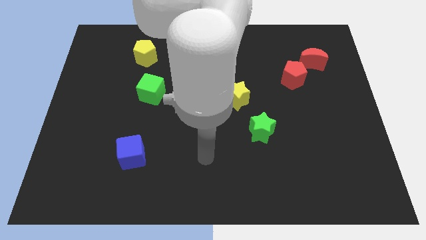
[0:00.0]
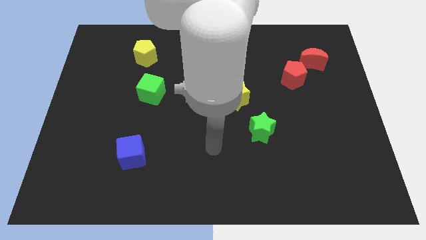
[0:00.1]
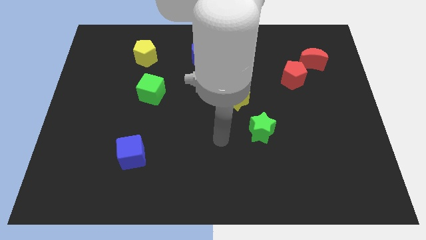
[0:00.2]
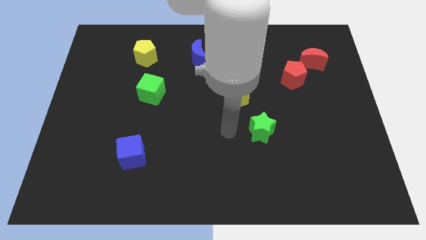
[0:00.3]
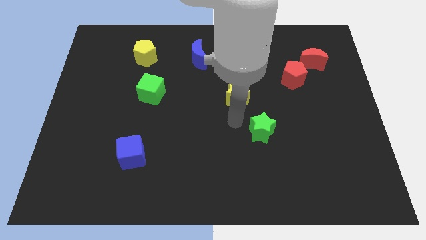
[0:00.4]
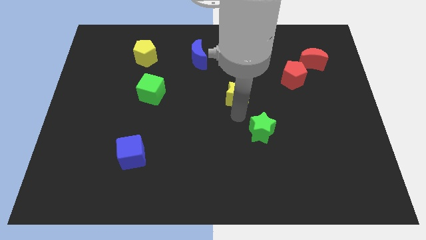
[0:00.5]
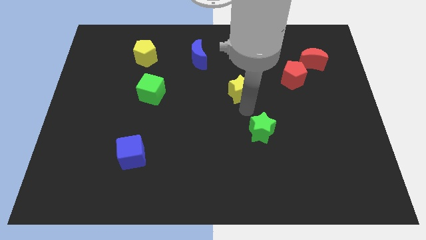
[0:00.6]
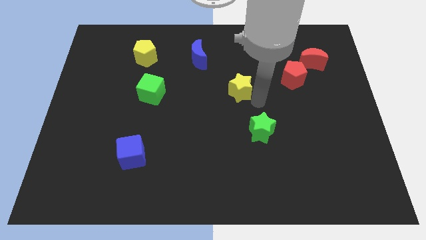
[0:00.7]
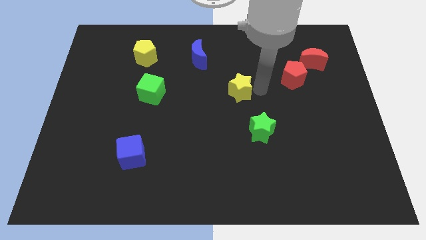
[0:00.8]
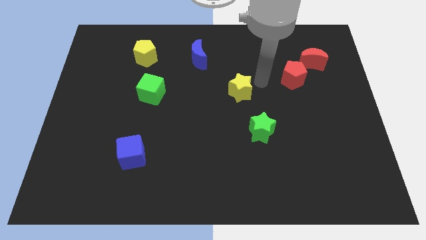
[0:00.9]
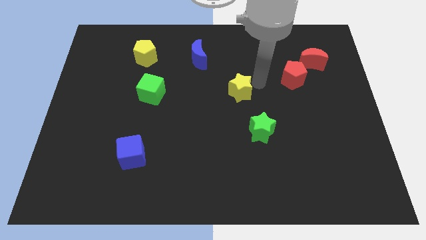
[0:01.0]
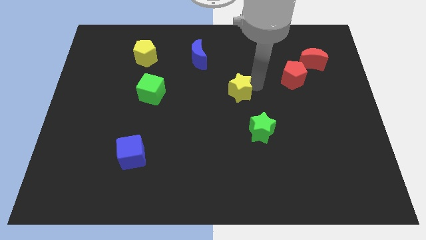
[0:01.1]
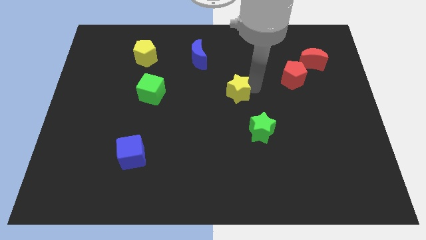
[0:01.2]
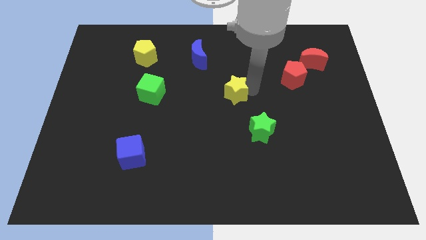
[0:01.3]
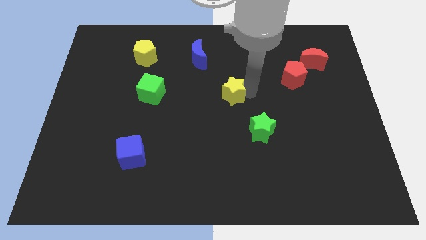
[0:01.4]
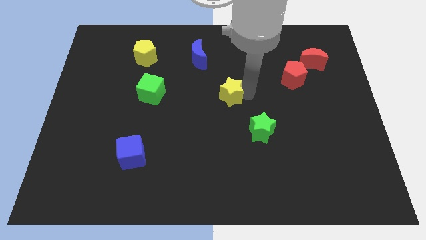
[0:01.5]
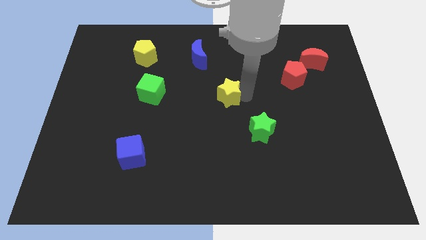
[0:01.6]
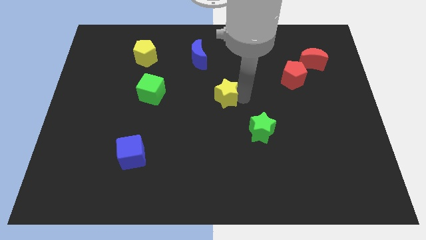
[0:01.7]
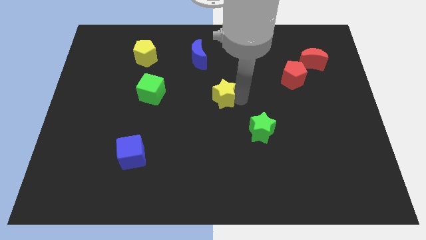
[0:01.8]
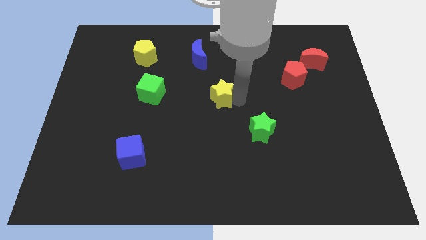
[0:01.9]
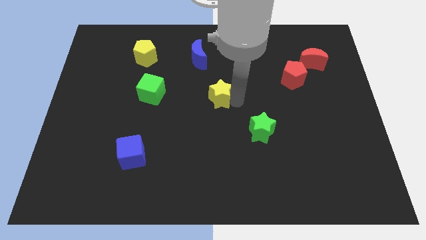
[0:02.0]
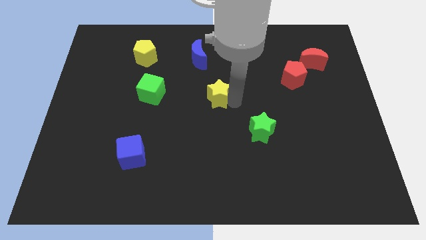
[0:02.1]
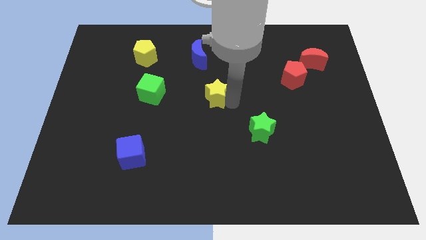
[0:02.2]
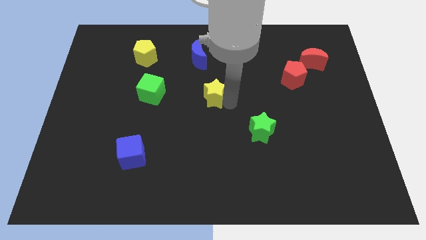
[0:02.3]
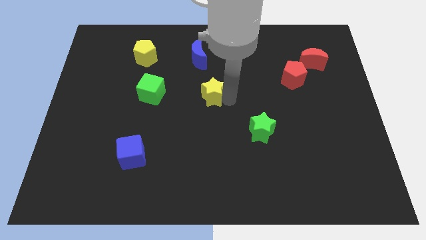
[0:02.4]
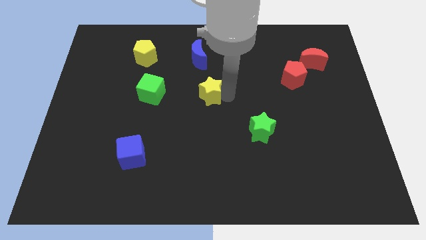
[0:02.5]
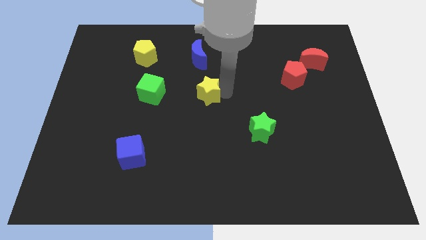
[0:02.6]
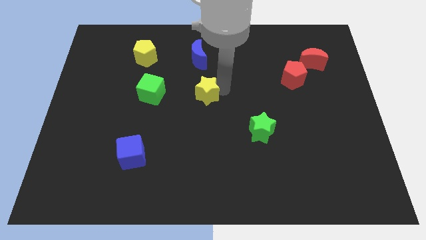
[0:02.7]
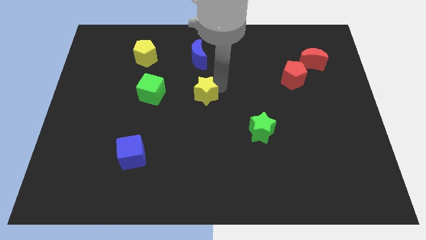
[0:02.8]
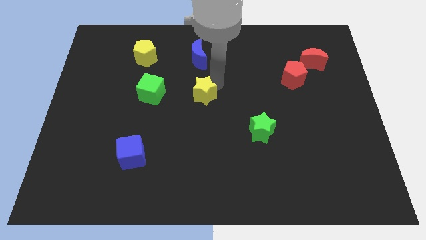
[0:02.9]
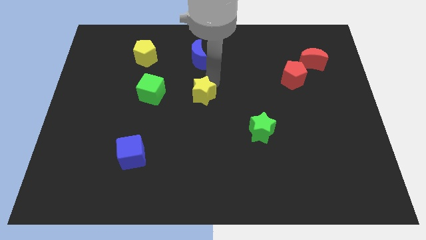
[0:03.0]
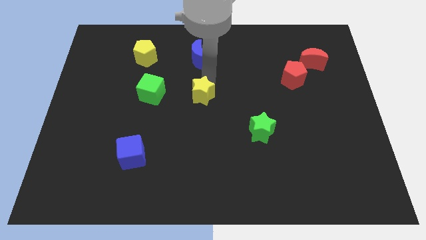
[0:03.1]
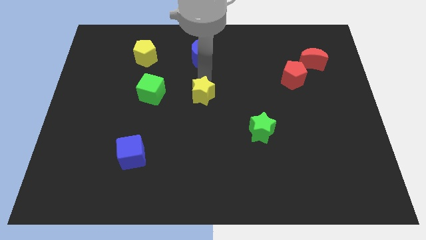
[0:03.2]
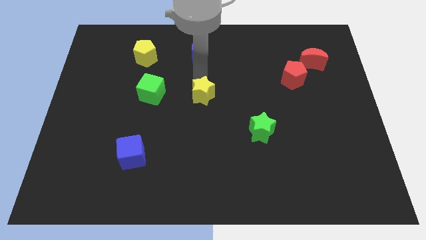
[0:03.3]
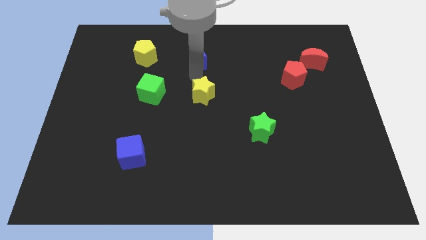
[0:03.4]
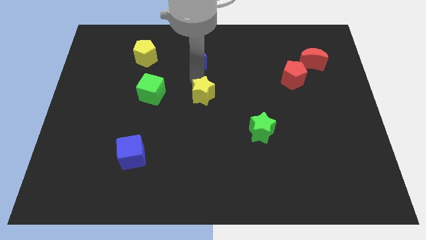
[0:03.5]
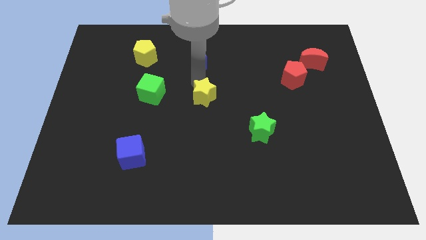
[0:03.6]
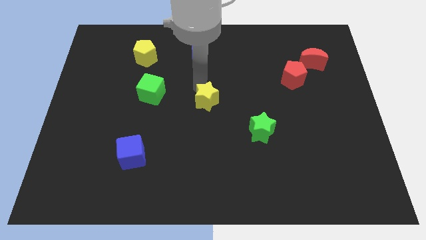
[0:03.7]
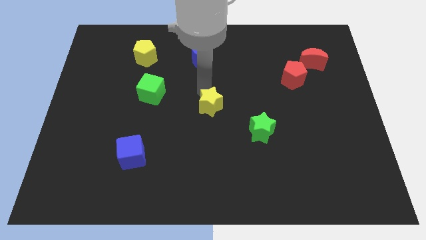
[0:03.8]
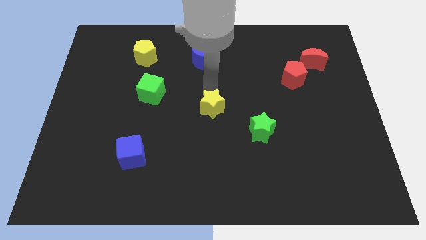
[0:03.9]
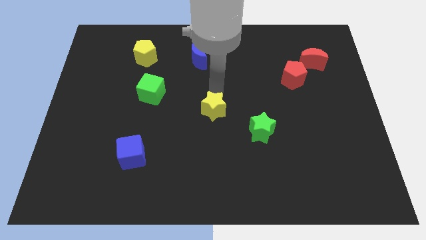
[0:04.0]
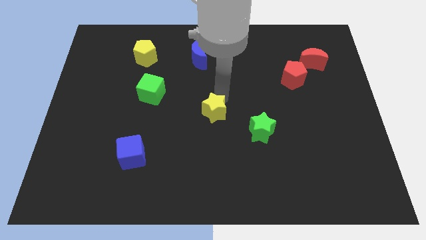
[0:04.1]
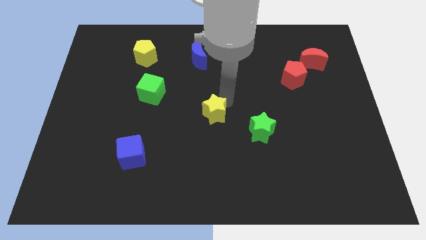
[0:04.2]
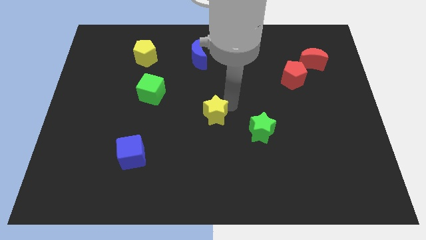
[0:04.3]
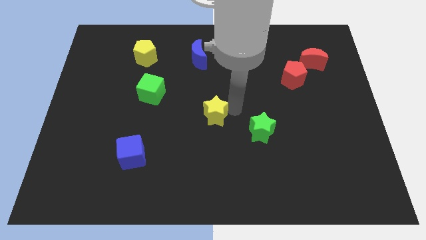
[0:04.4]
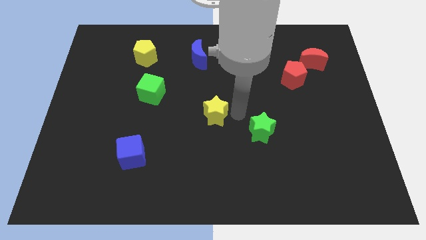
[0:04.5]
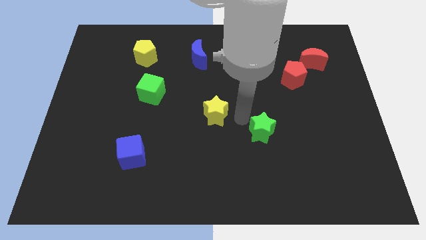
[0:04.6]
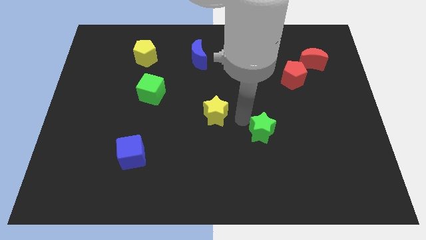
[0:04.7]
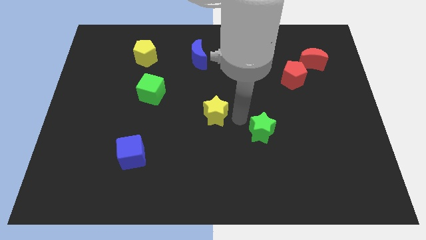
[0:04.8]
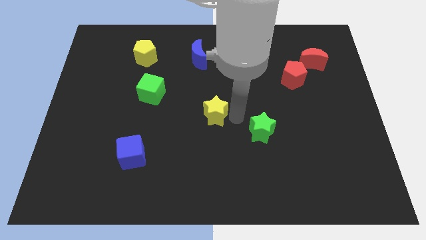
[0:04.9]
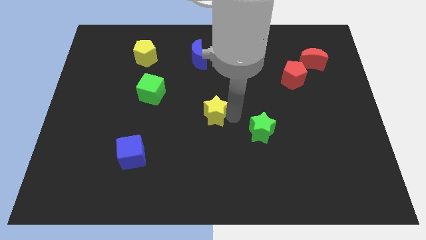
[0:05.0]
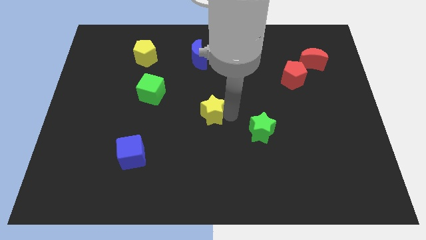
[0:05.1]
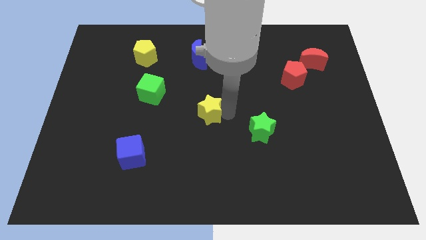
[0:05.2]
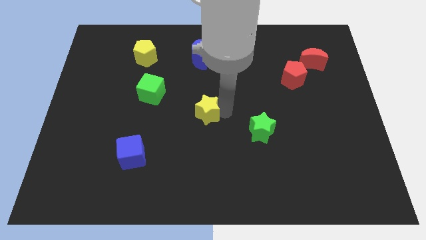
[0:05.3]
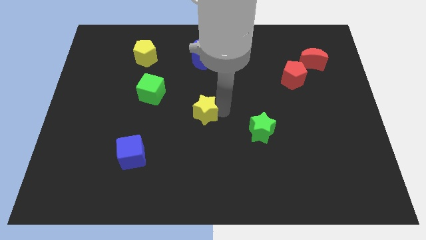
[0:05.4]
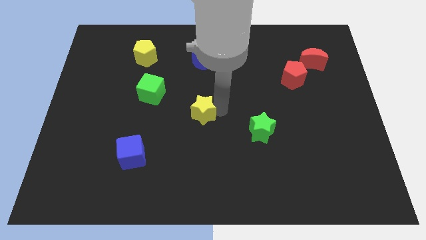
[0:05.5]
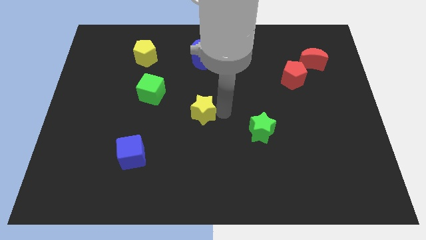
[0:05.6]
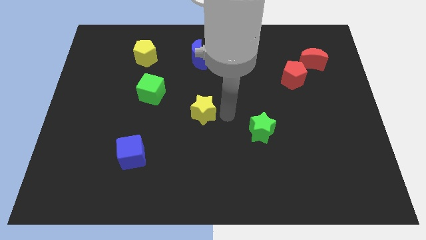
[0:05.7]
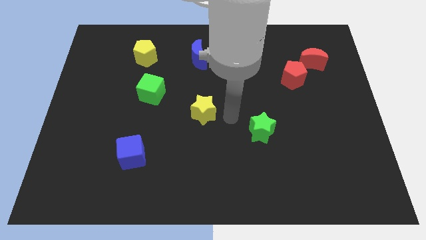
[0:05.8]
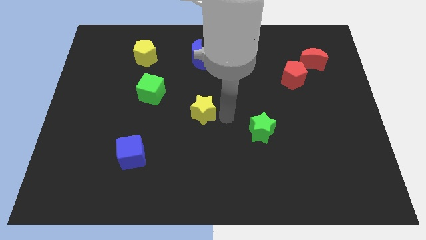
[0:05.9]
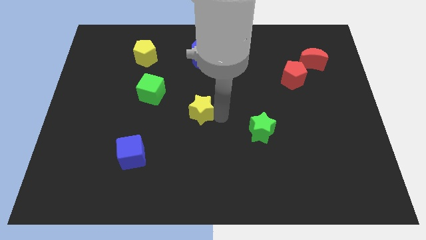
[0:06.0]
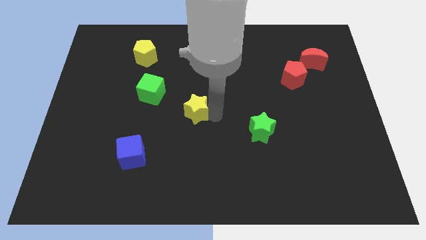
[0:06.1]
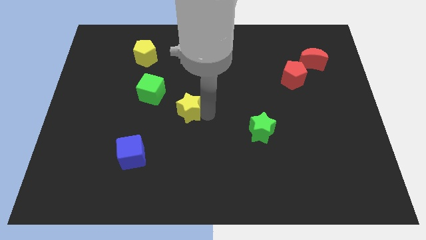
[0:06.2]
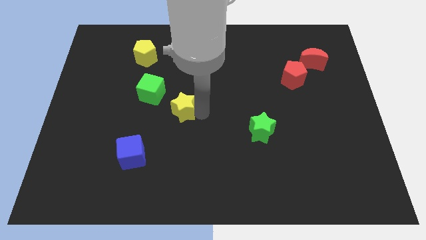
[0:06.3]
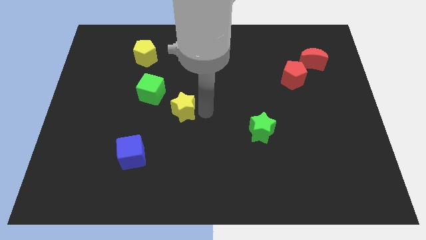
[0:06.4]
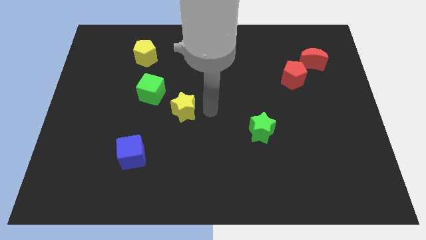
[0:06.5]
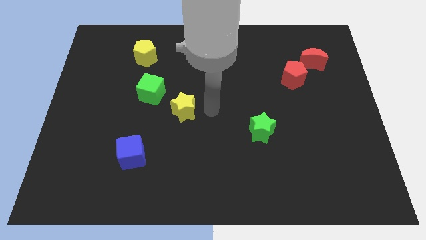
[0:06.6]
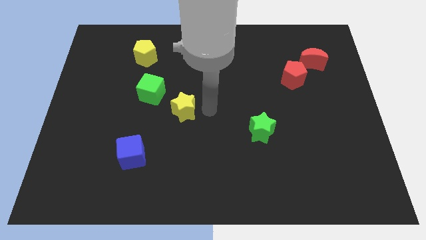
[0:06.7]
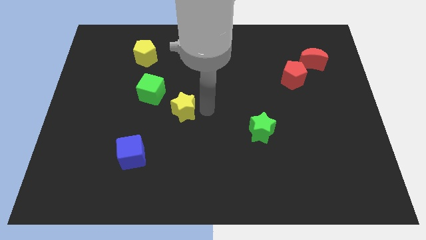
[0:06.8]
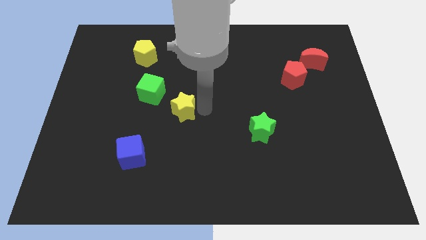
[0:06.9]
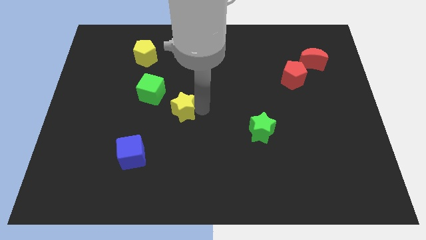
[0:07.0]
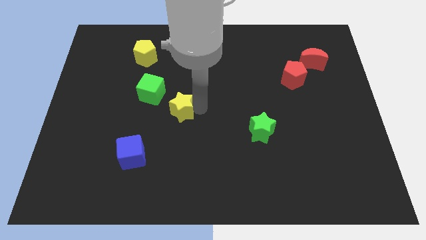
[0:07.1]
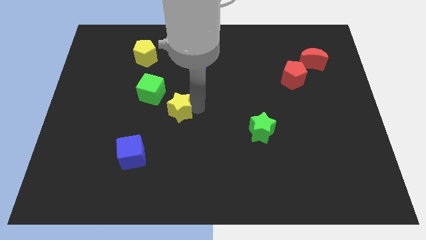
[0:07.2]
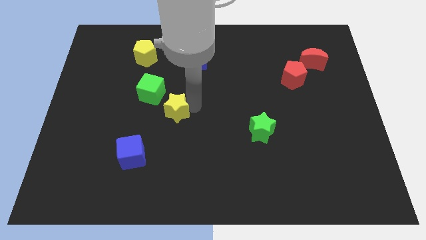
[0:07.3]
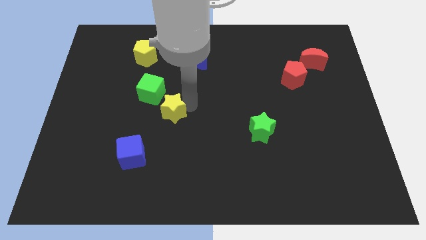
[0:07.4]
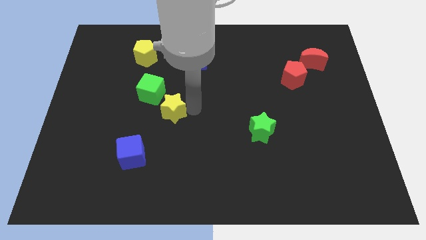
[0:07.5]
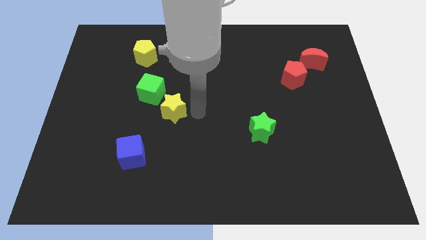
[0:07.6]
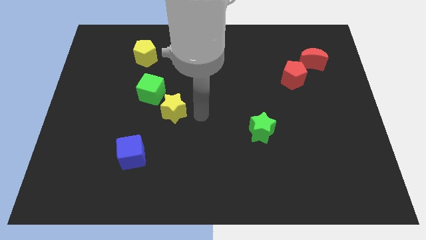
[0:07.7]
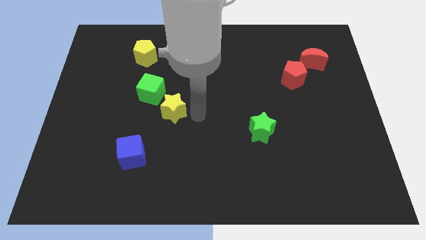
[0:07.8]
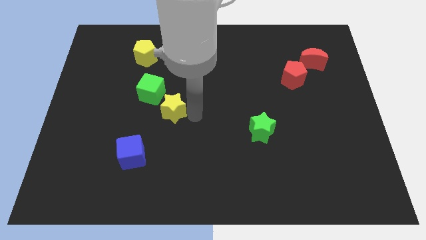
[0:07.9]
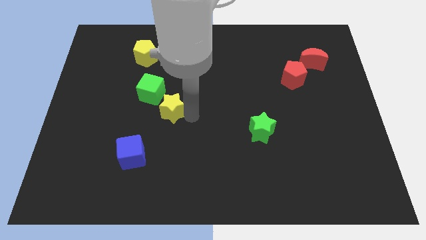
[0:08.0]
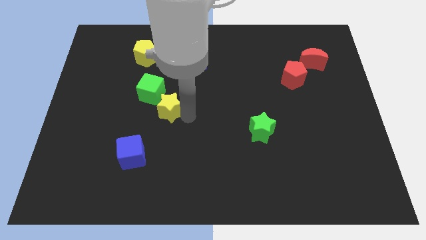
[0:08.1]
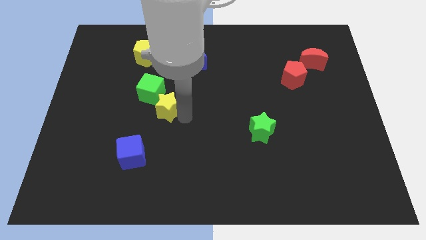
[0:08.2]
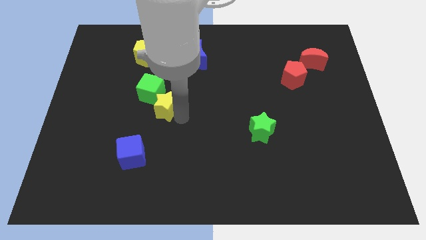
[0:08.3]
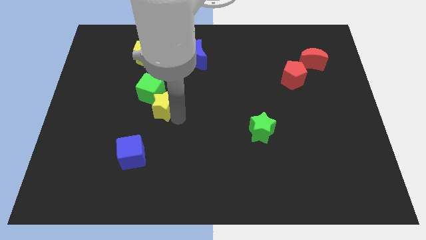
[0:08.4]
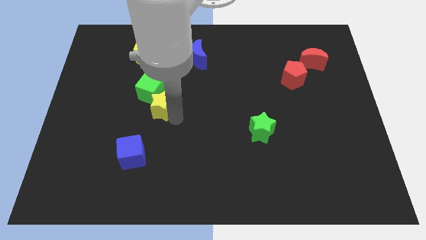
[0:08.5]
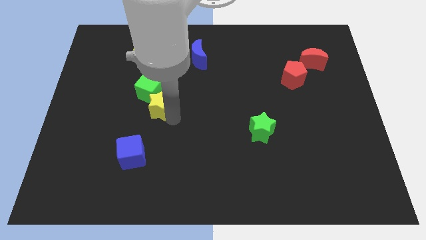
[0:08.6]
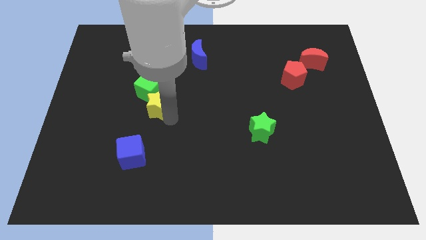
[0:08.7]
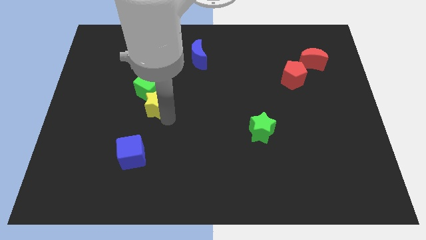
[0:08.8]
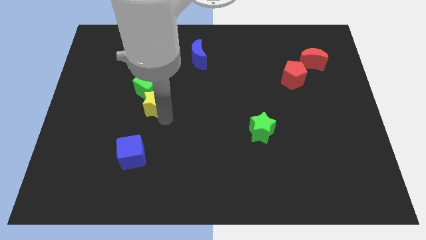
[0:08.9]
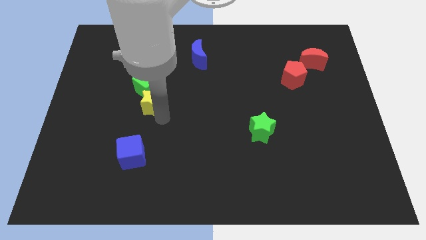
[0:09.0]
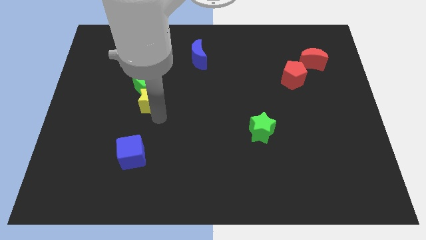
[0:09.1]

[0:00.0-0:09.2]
slide the yellow star left
